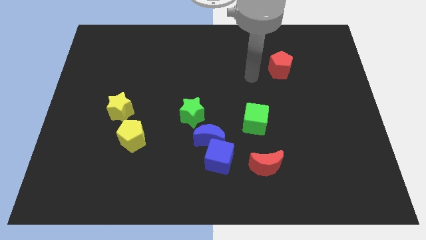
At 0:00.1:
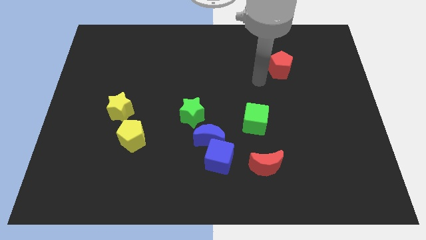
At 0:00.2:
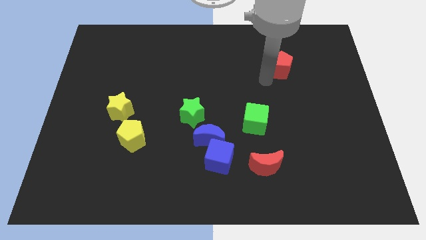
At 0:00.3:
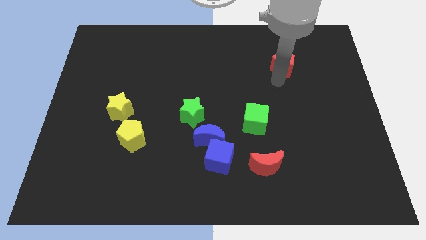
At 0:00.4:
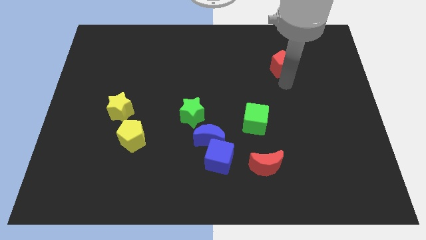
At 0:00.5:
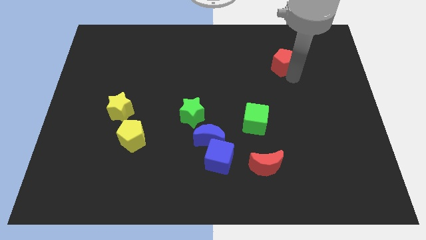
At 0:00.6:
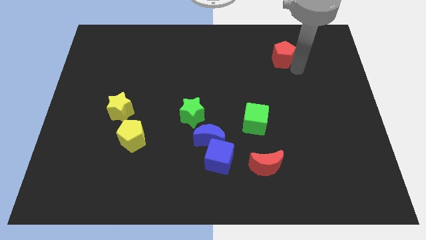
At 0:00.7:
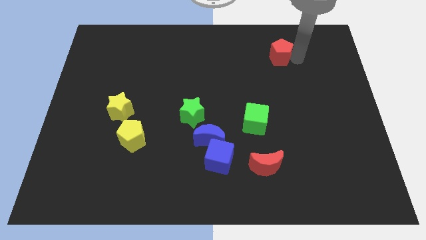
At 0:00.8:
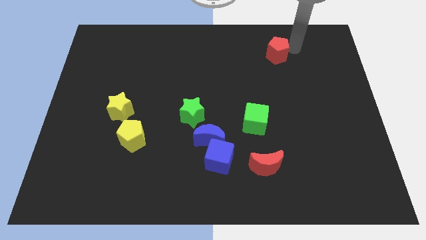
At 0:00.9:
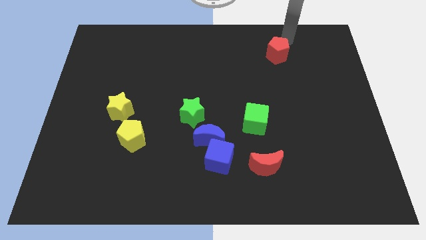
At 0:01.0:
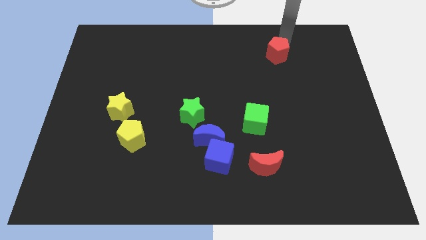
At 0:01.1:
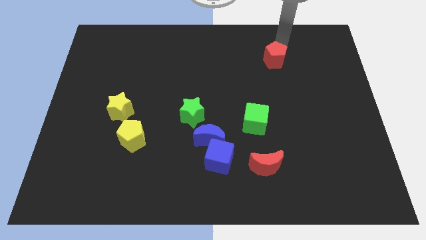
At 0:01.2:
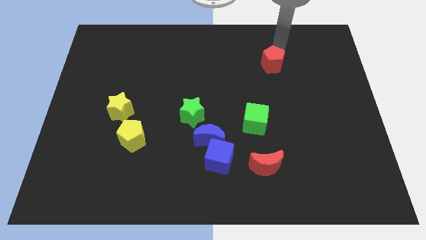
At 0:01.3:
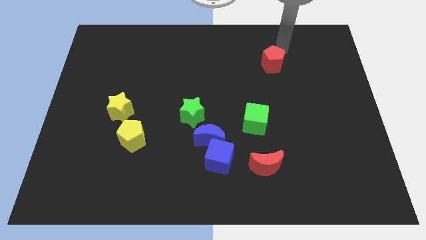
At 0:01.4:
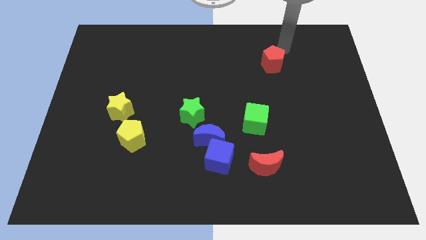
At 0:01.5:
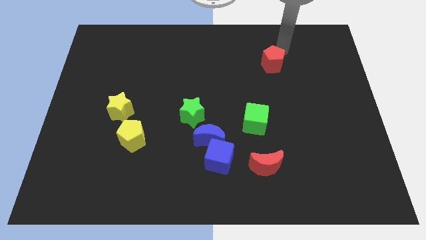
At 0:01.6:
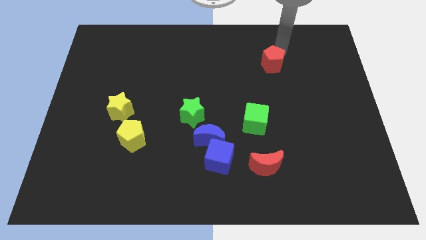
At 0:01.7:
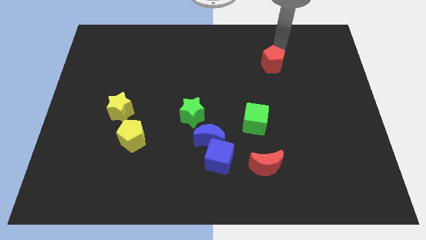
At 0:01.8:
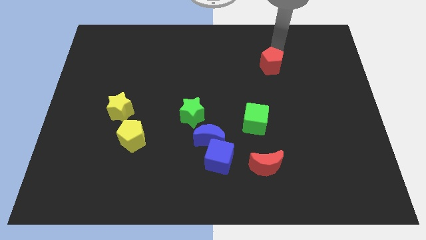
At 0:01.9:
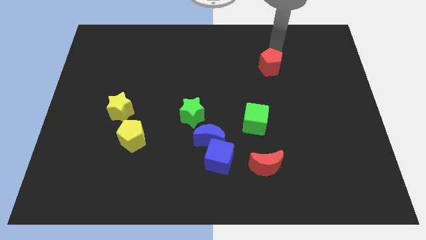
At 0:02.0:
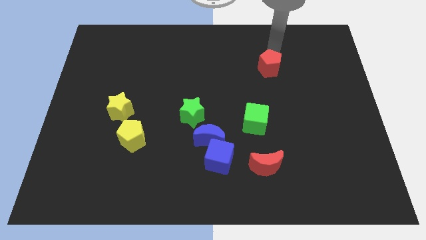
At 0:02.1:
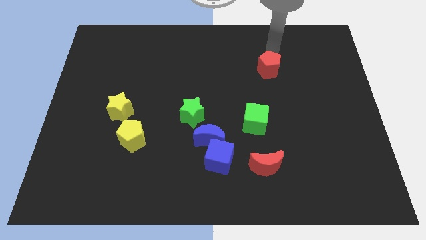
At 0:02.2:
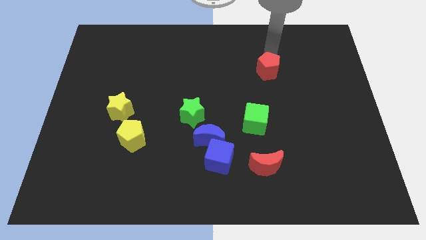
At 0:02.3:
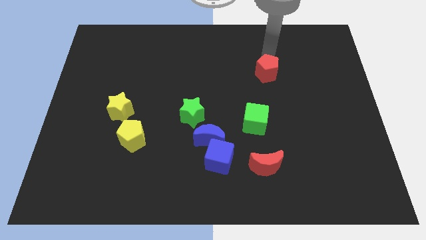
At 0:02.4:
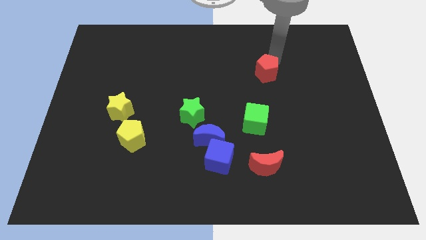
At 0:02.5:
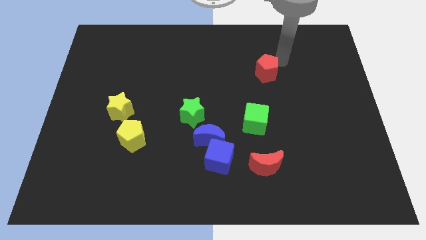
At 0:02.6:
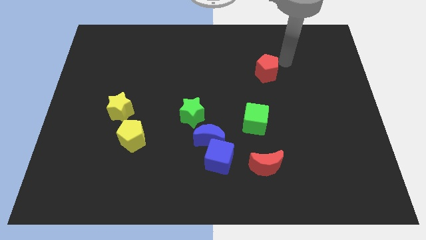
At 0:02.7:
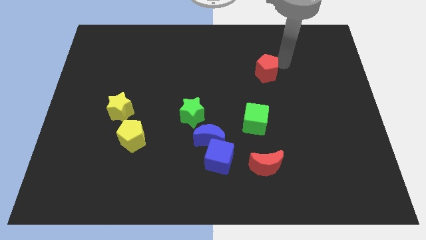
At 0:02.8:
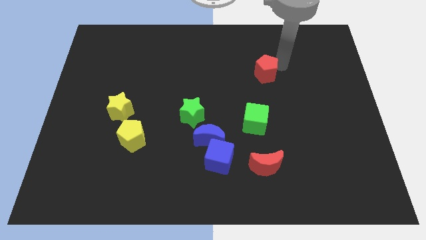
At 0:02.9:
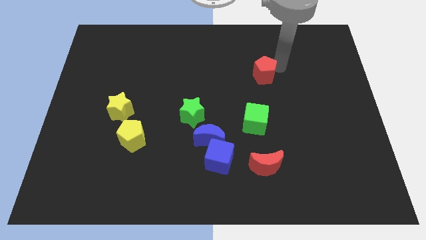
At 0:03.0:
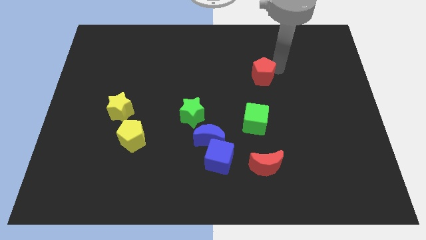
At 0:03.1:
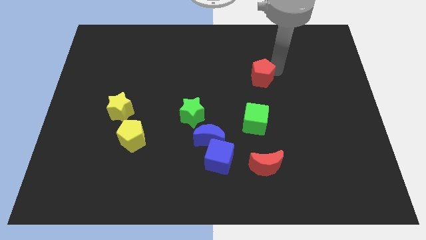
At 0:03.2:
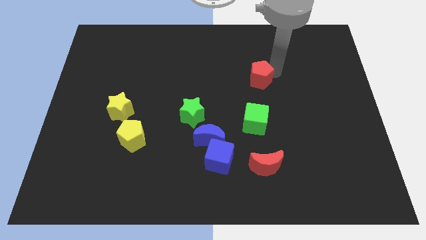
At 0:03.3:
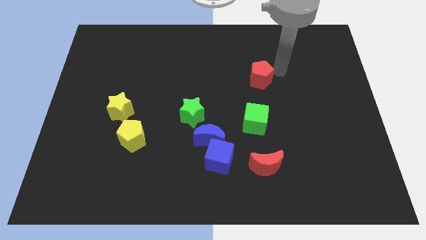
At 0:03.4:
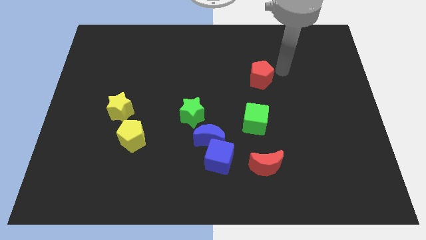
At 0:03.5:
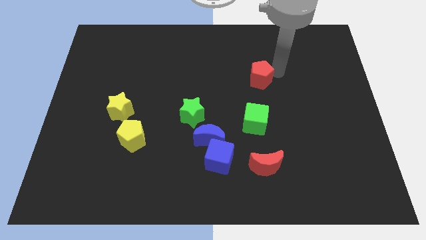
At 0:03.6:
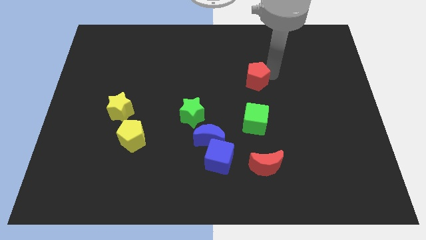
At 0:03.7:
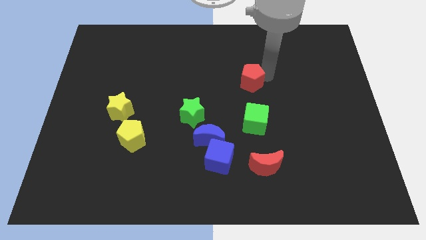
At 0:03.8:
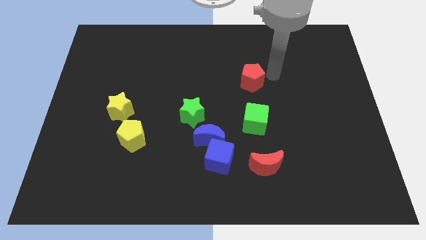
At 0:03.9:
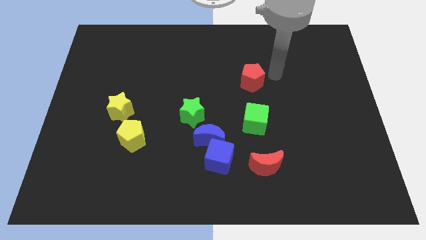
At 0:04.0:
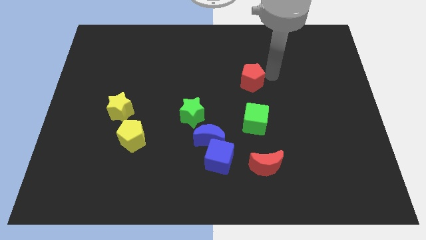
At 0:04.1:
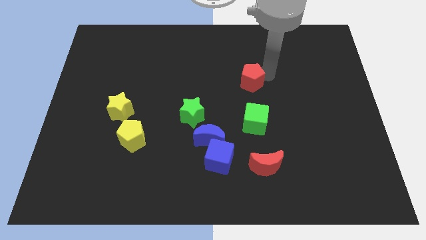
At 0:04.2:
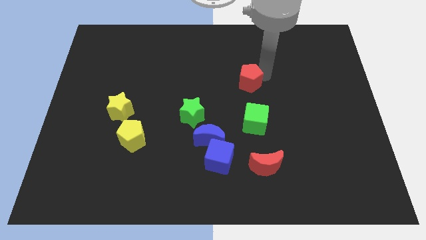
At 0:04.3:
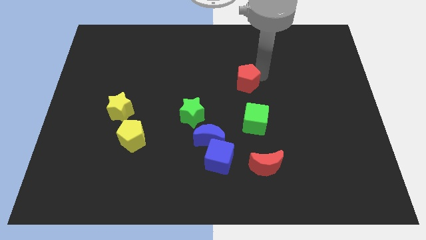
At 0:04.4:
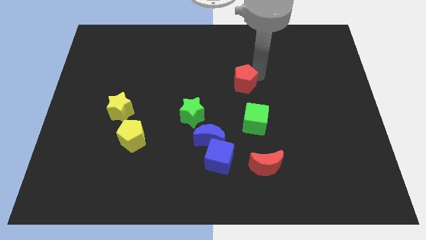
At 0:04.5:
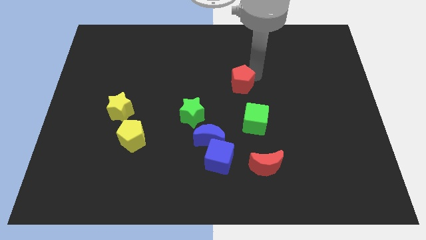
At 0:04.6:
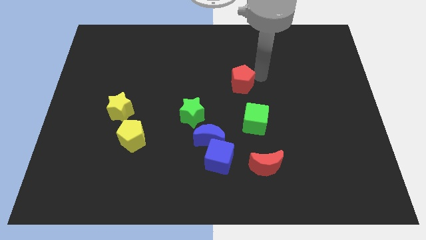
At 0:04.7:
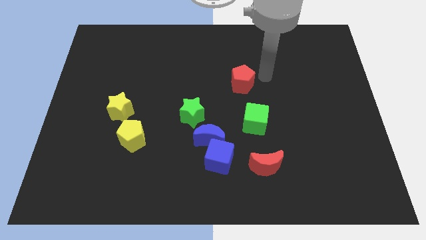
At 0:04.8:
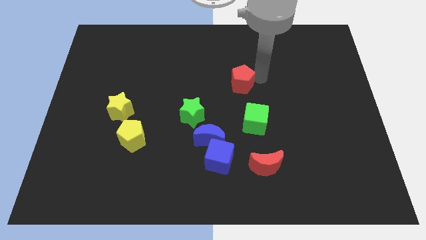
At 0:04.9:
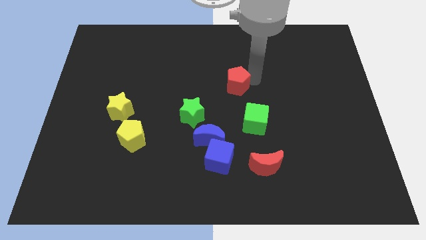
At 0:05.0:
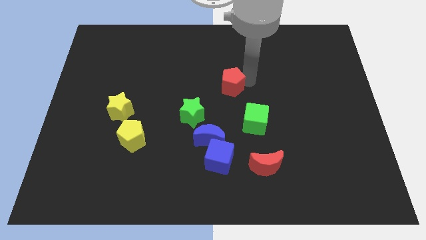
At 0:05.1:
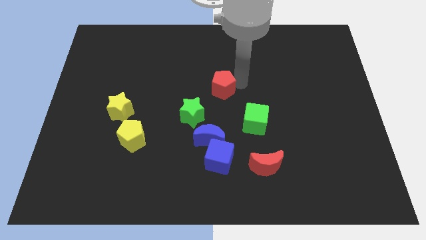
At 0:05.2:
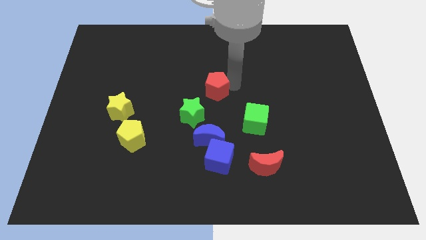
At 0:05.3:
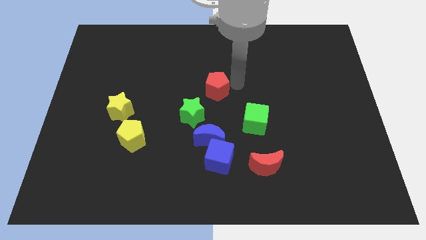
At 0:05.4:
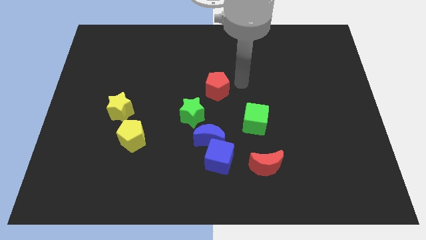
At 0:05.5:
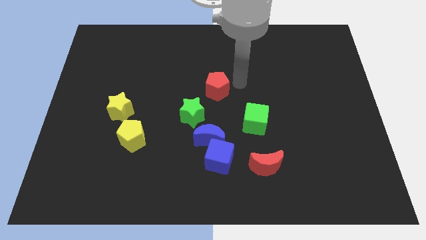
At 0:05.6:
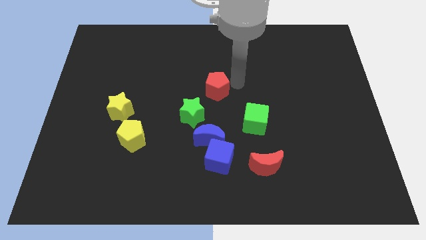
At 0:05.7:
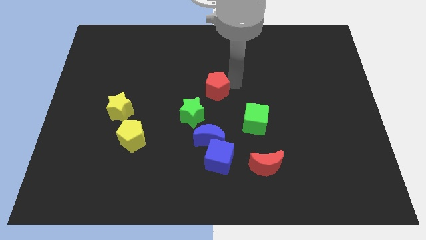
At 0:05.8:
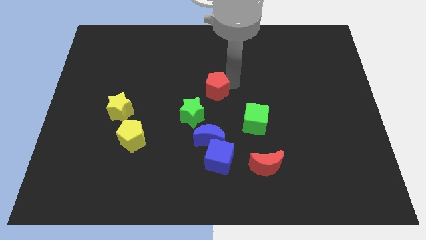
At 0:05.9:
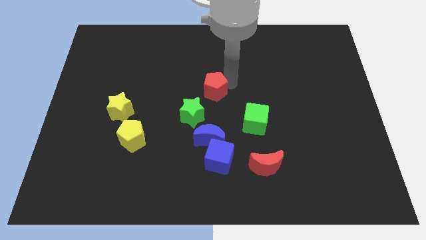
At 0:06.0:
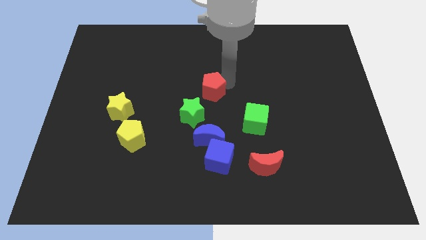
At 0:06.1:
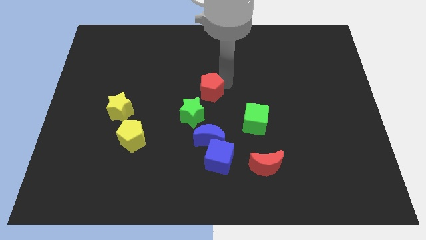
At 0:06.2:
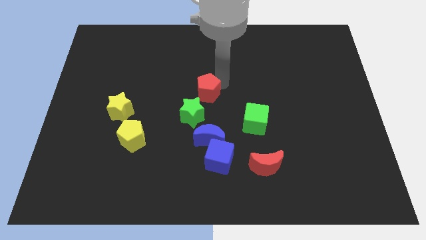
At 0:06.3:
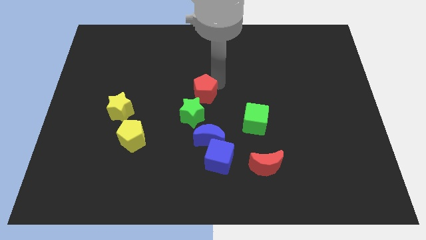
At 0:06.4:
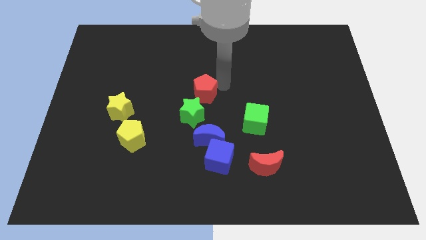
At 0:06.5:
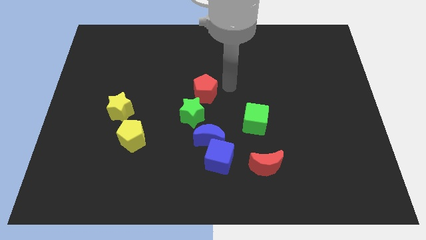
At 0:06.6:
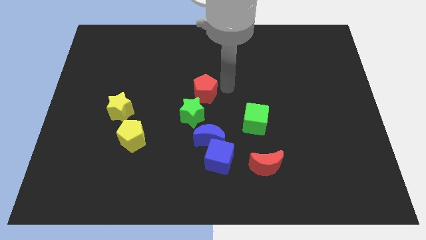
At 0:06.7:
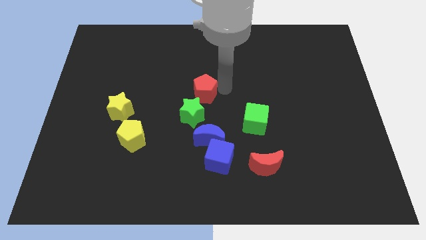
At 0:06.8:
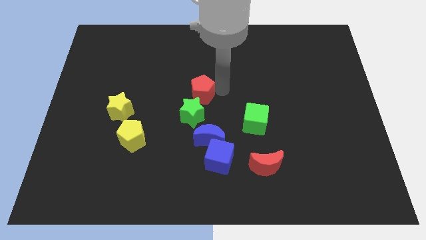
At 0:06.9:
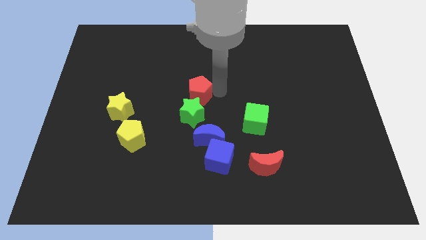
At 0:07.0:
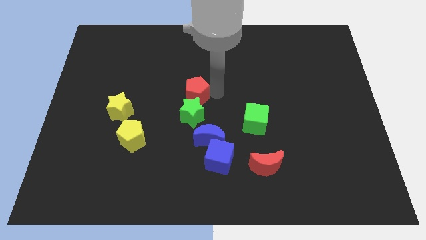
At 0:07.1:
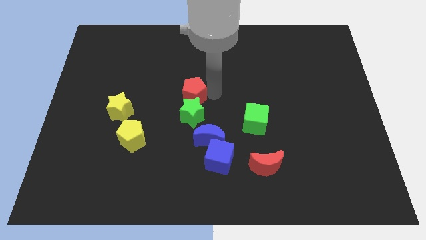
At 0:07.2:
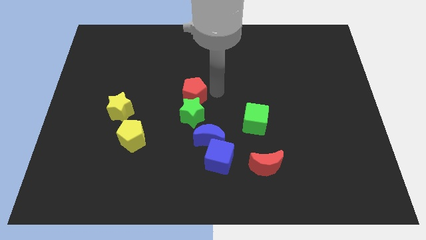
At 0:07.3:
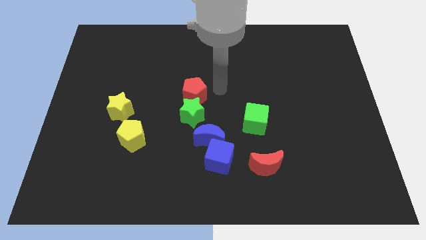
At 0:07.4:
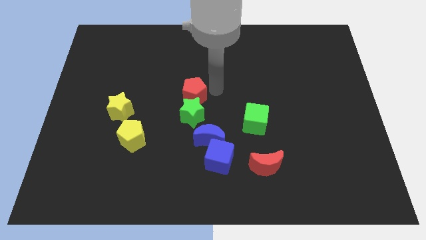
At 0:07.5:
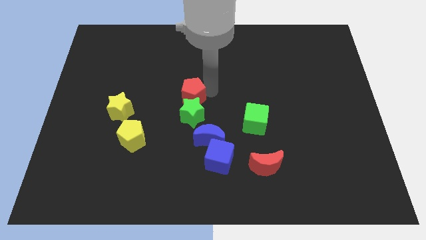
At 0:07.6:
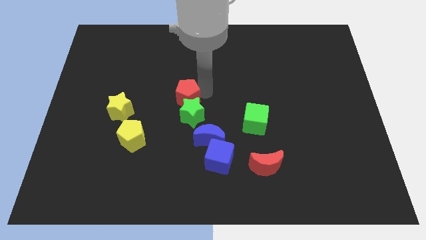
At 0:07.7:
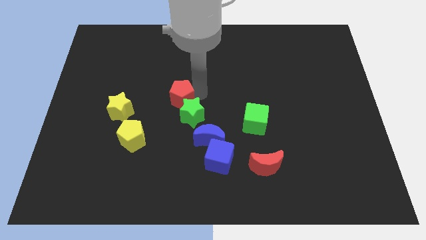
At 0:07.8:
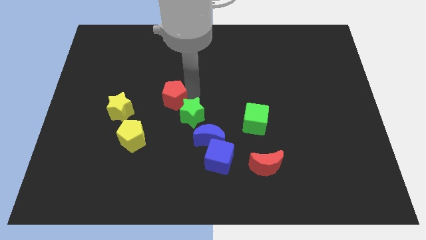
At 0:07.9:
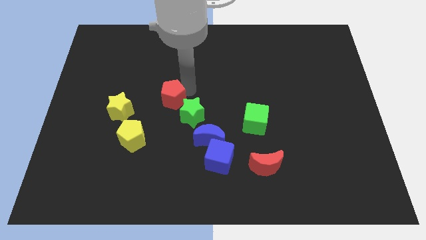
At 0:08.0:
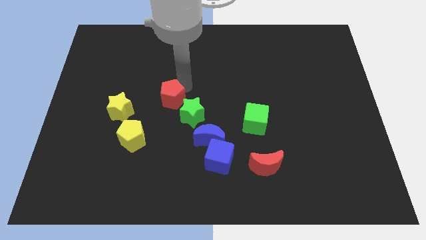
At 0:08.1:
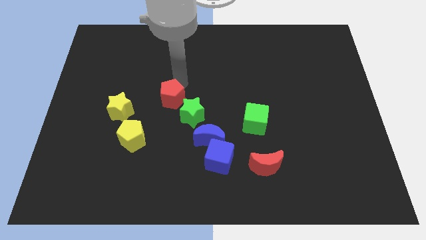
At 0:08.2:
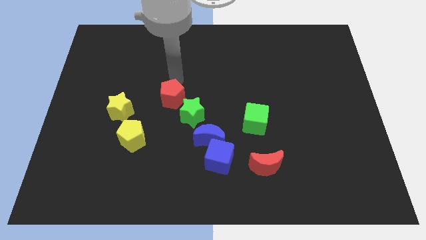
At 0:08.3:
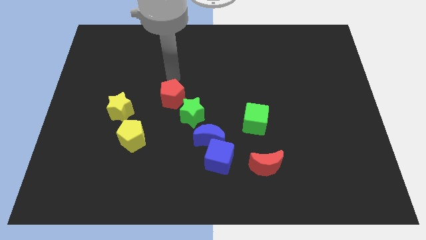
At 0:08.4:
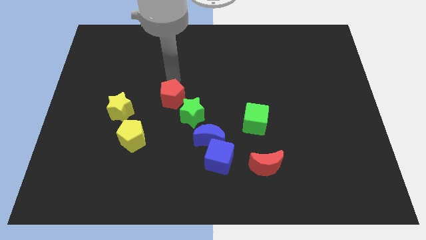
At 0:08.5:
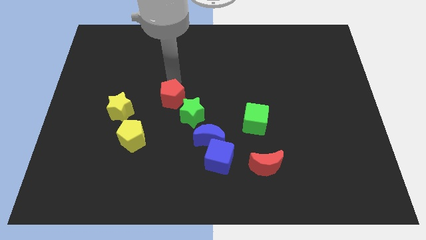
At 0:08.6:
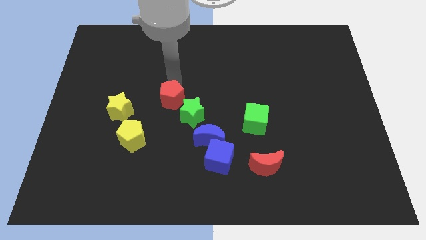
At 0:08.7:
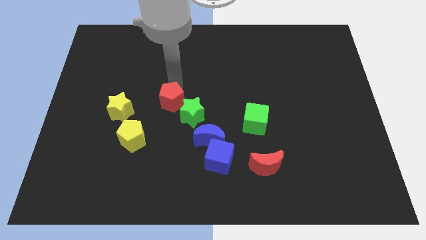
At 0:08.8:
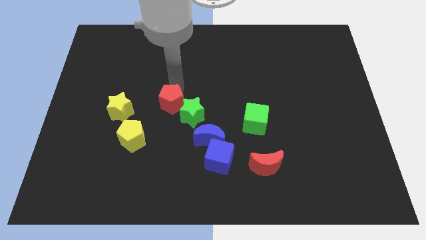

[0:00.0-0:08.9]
push the red pentagon diagonally down and to the left
